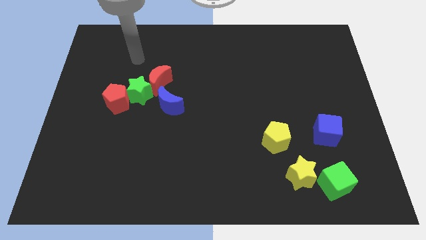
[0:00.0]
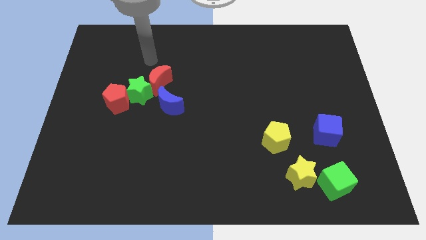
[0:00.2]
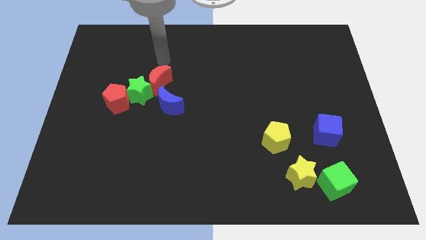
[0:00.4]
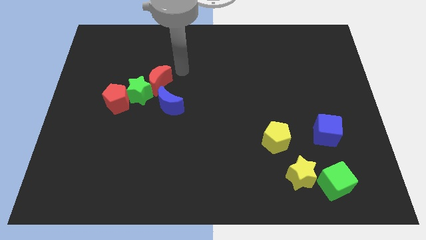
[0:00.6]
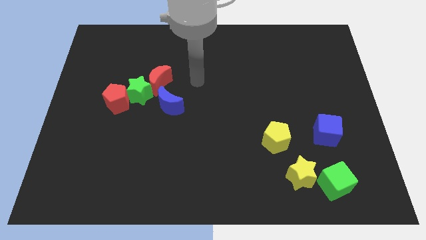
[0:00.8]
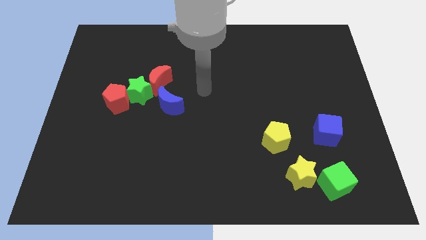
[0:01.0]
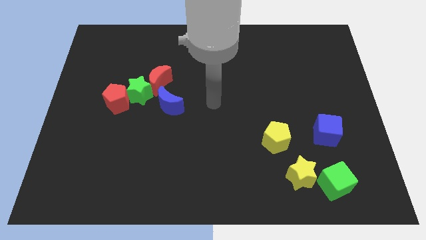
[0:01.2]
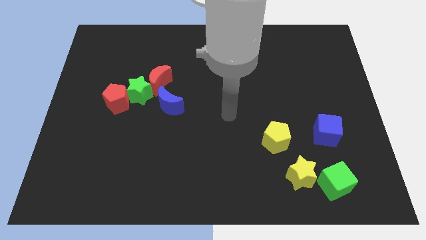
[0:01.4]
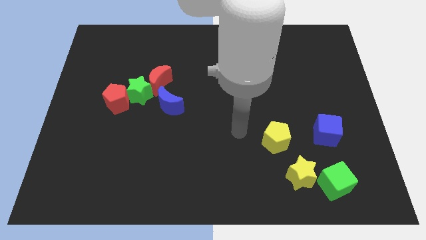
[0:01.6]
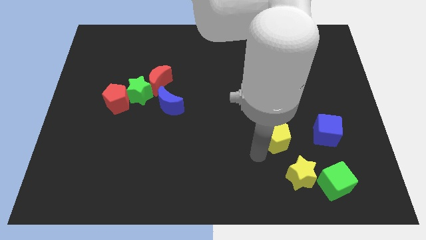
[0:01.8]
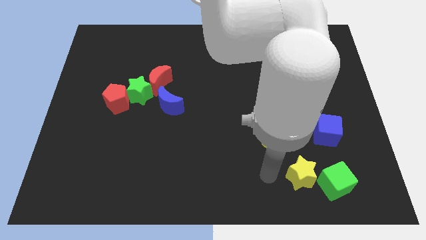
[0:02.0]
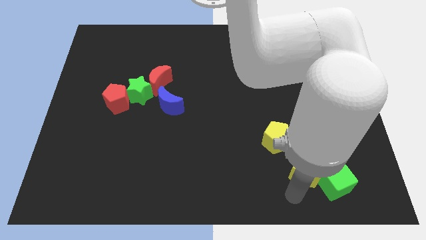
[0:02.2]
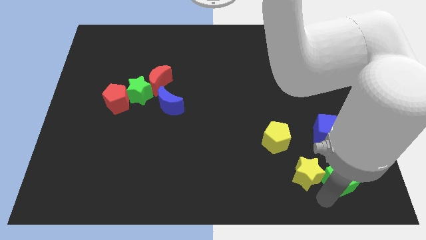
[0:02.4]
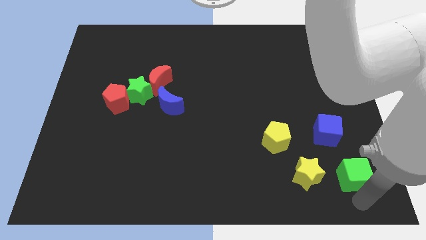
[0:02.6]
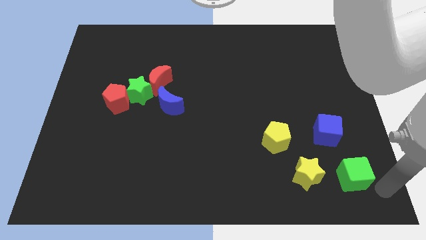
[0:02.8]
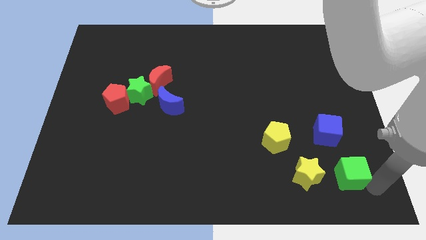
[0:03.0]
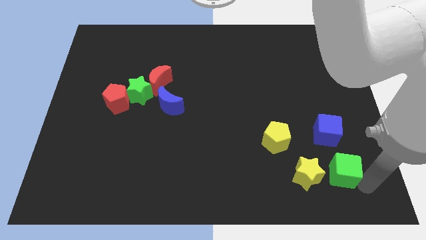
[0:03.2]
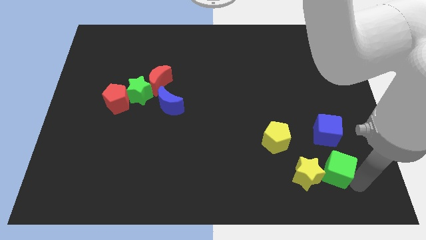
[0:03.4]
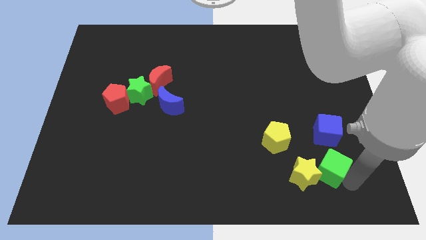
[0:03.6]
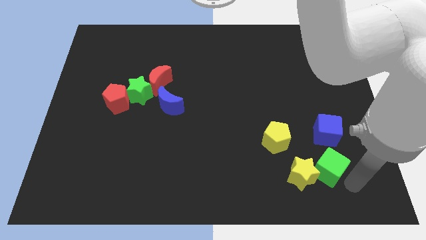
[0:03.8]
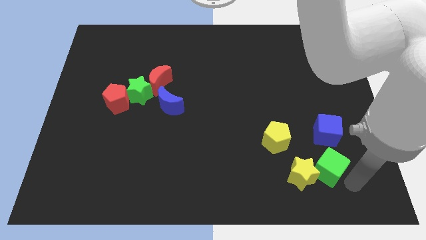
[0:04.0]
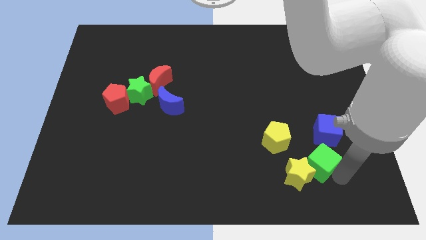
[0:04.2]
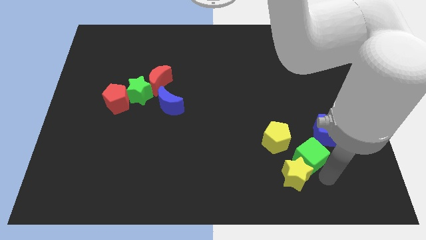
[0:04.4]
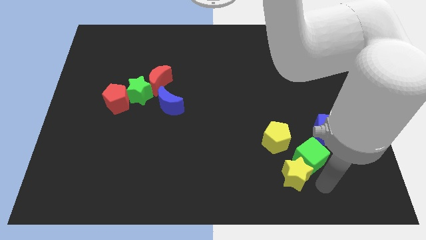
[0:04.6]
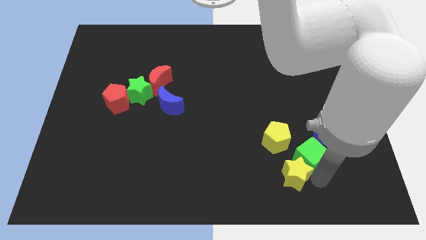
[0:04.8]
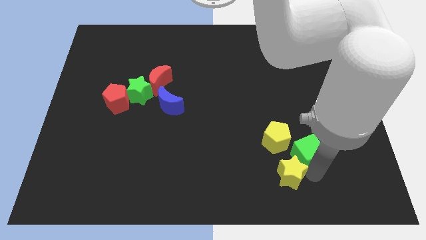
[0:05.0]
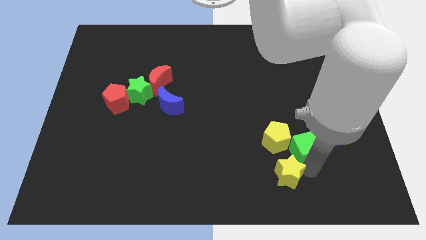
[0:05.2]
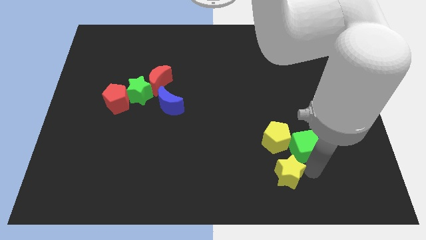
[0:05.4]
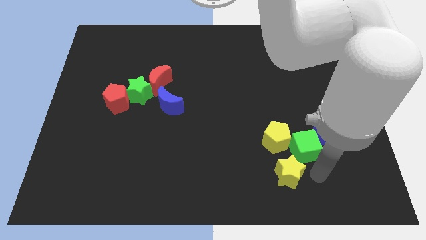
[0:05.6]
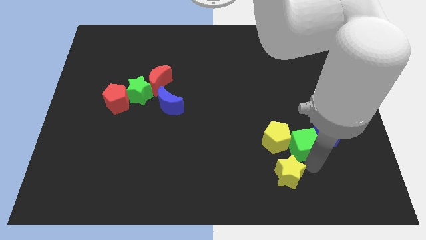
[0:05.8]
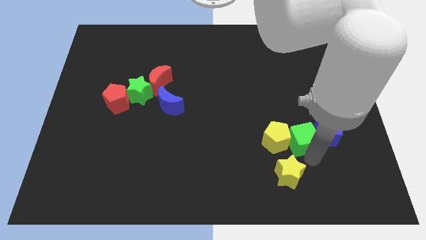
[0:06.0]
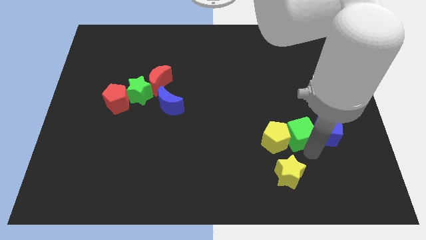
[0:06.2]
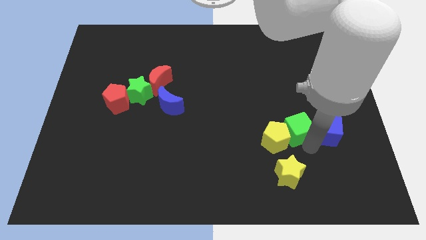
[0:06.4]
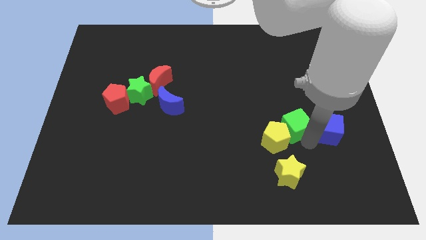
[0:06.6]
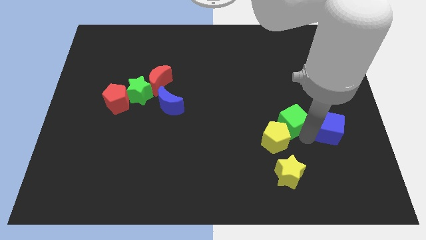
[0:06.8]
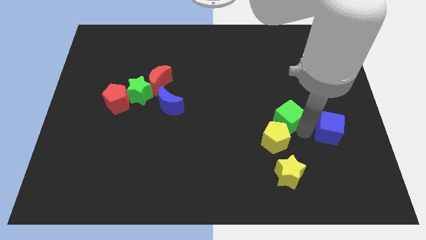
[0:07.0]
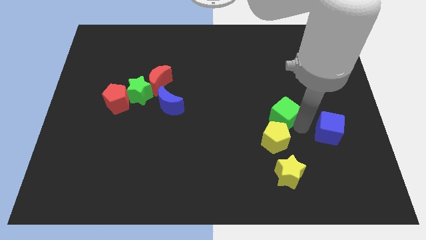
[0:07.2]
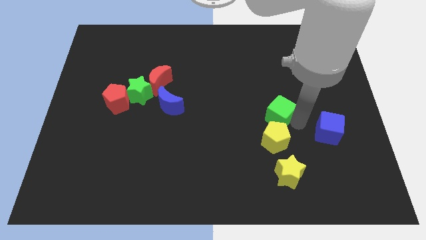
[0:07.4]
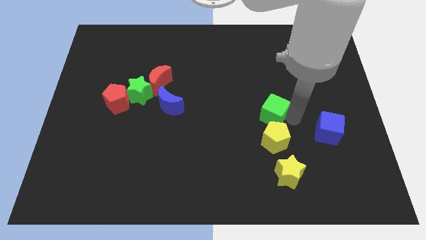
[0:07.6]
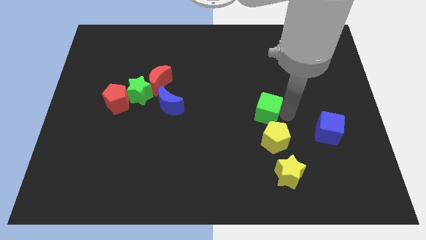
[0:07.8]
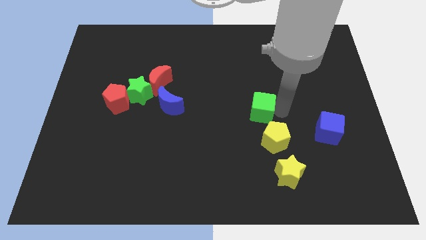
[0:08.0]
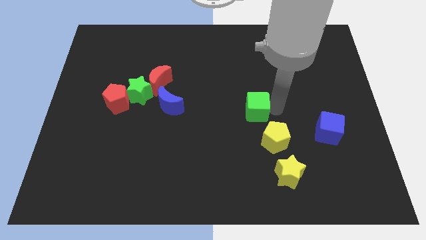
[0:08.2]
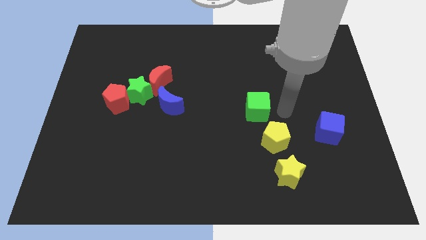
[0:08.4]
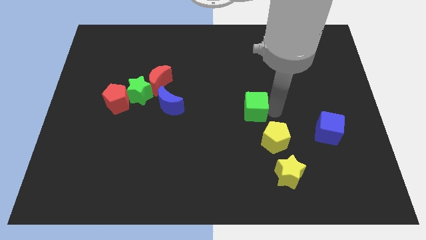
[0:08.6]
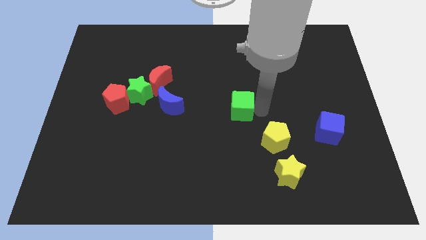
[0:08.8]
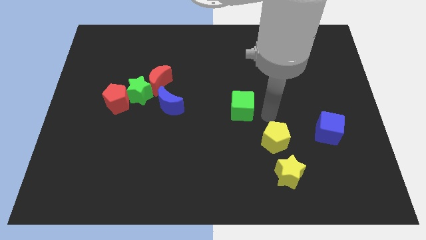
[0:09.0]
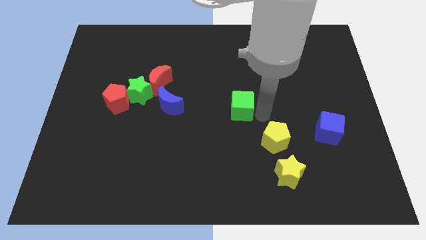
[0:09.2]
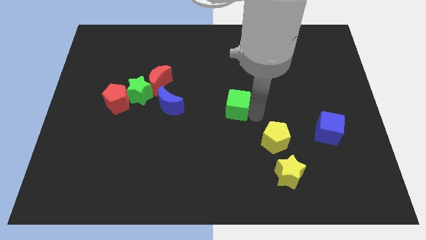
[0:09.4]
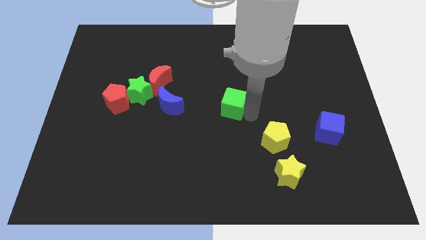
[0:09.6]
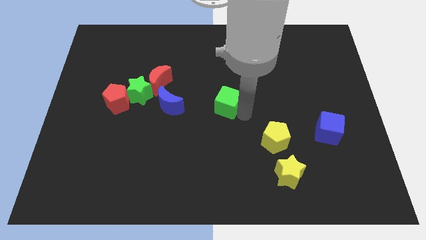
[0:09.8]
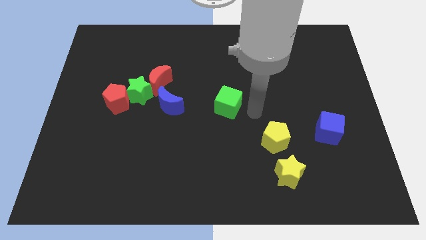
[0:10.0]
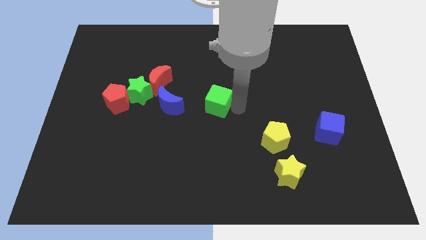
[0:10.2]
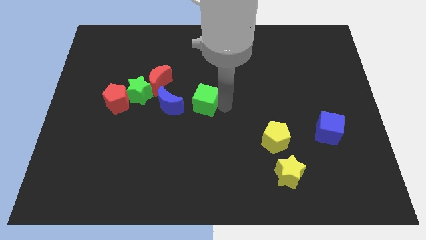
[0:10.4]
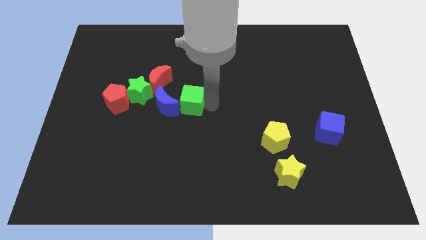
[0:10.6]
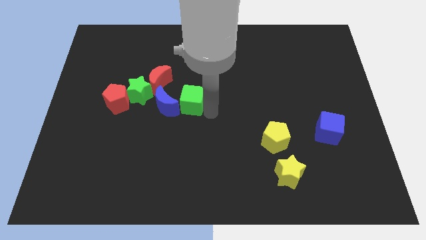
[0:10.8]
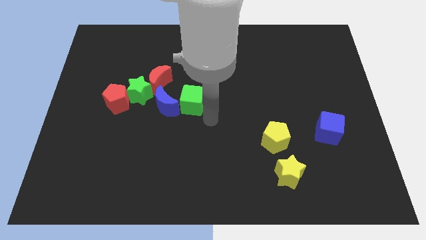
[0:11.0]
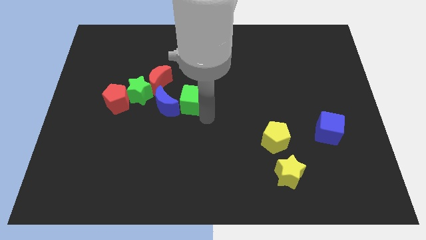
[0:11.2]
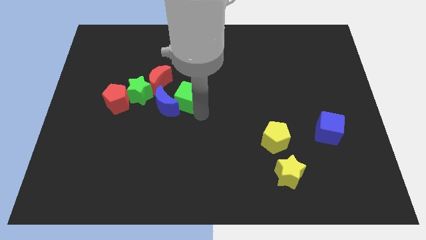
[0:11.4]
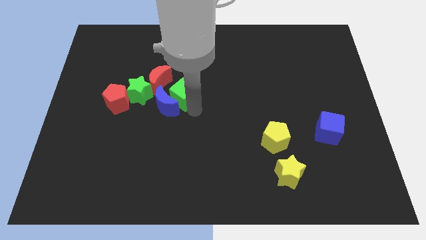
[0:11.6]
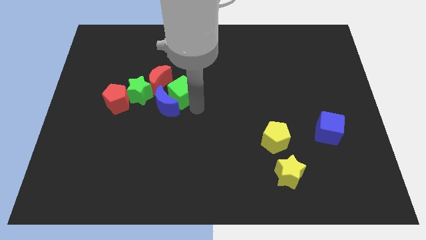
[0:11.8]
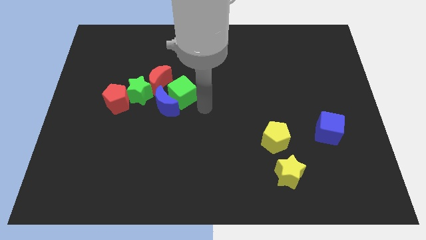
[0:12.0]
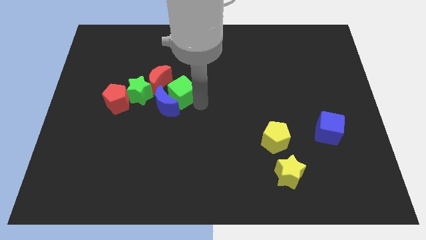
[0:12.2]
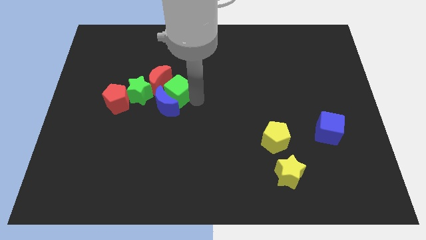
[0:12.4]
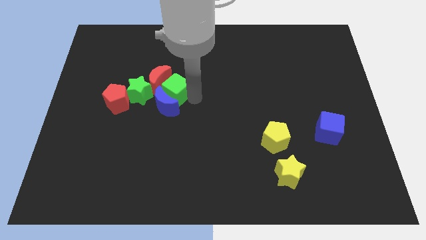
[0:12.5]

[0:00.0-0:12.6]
move the green cube next to the red moon
